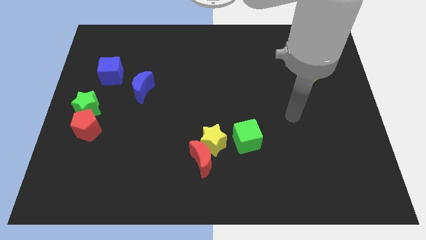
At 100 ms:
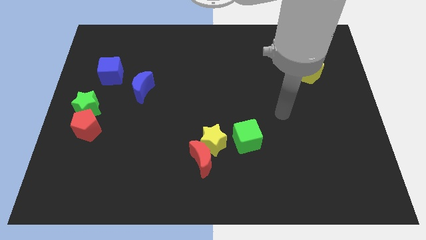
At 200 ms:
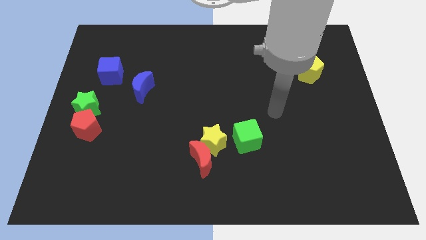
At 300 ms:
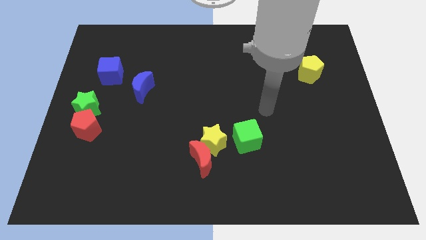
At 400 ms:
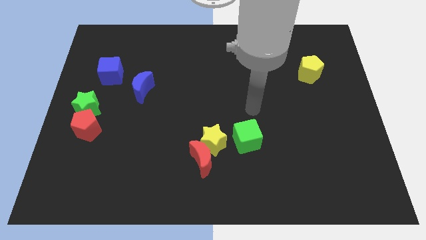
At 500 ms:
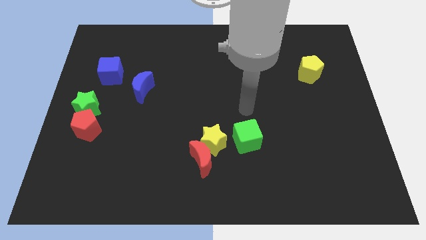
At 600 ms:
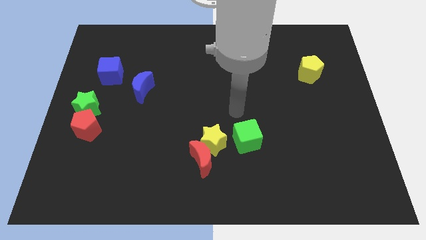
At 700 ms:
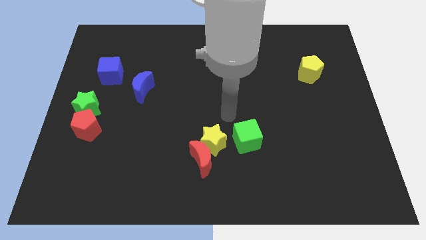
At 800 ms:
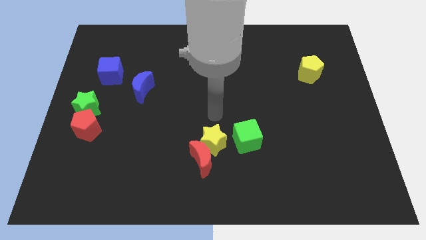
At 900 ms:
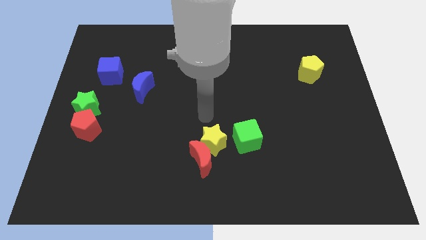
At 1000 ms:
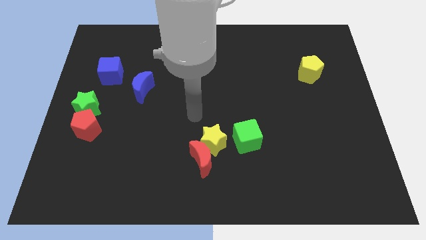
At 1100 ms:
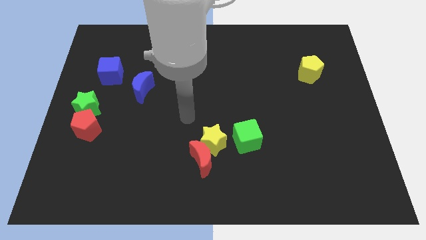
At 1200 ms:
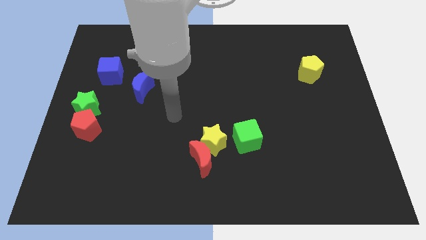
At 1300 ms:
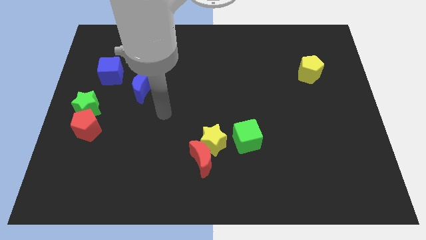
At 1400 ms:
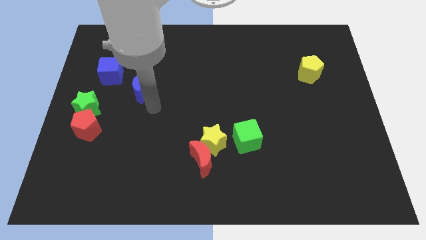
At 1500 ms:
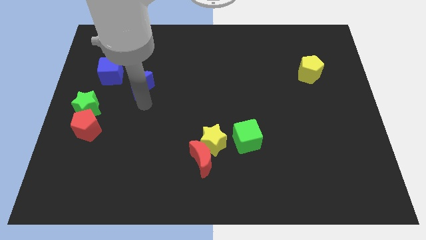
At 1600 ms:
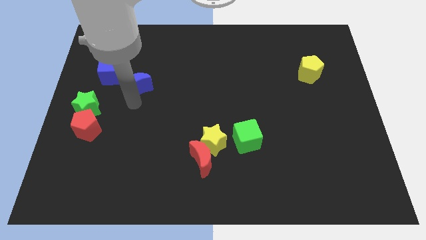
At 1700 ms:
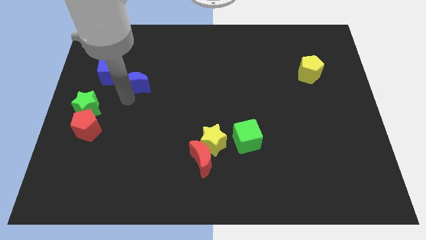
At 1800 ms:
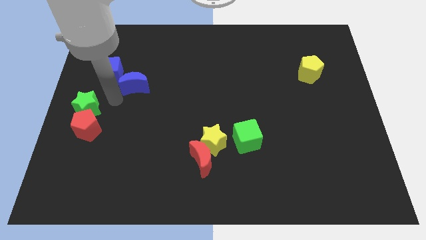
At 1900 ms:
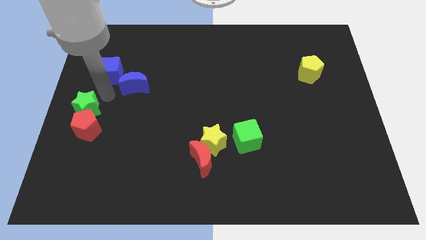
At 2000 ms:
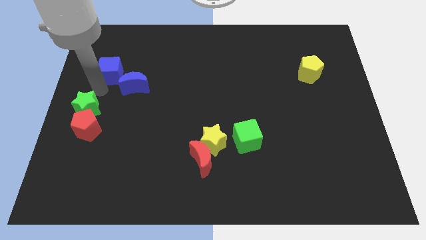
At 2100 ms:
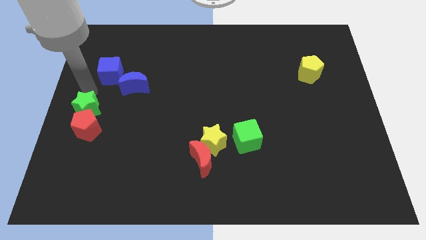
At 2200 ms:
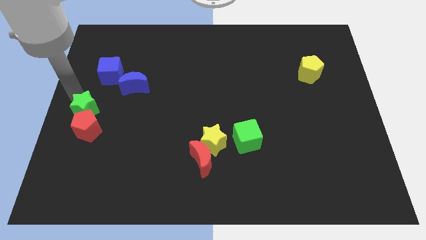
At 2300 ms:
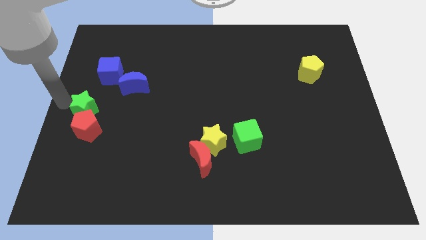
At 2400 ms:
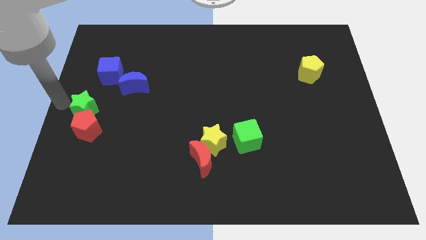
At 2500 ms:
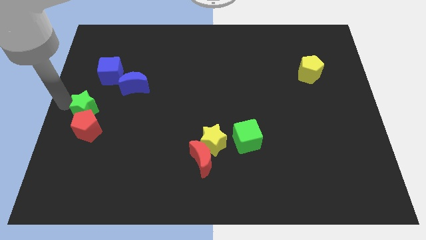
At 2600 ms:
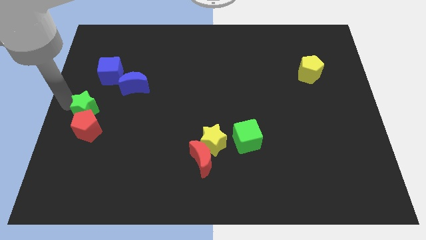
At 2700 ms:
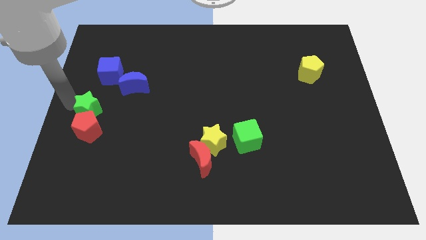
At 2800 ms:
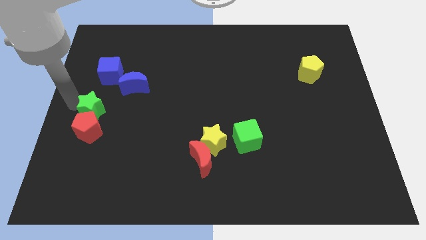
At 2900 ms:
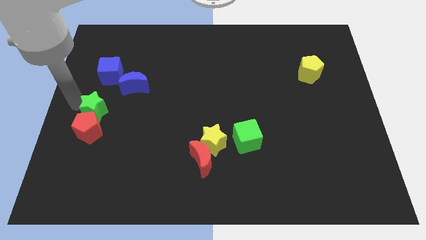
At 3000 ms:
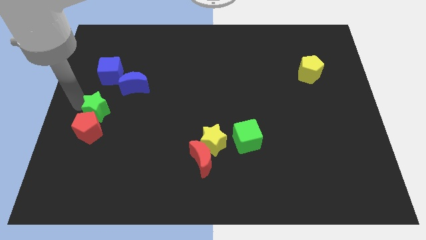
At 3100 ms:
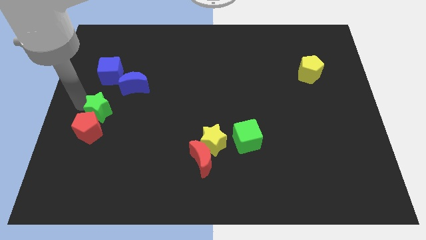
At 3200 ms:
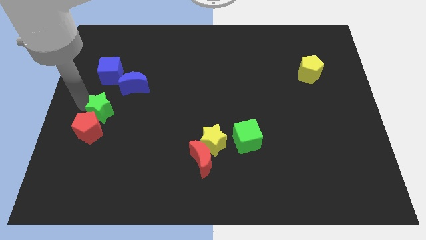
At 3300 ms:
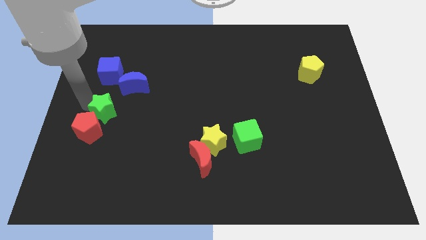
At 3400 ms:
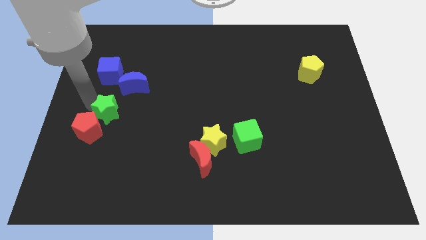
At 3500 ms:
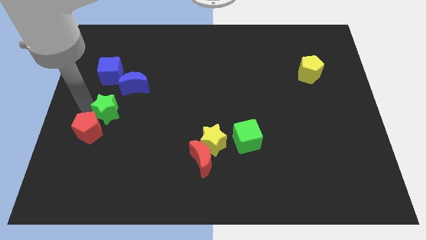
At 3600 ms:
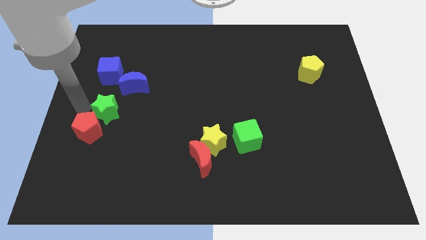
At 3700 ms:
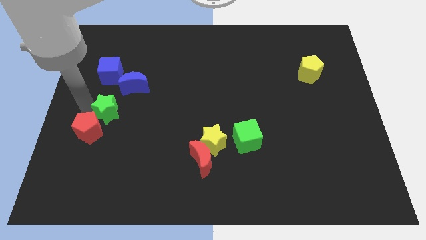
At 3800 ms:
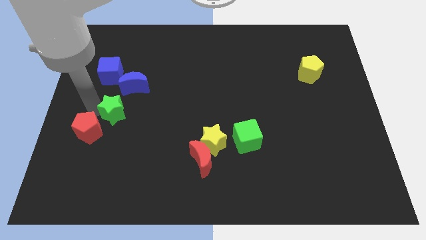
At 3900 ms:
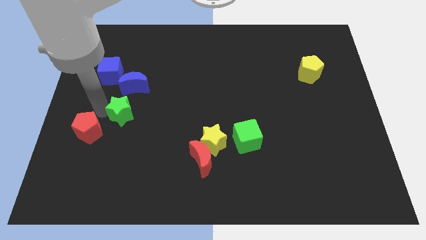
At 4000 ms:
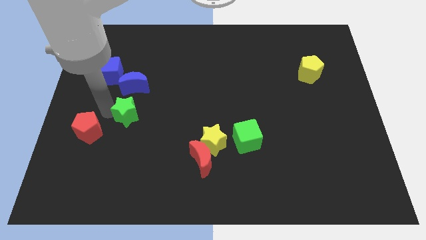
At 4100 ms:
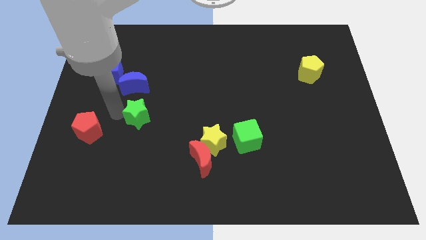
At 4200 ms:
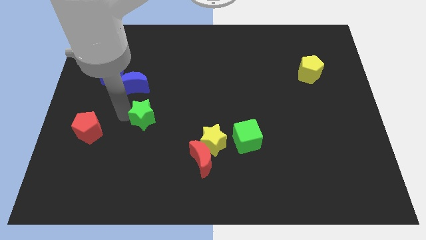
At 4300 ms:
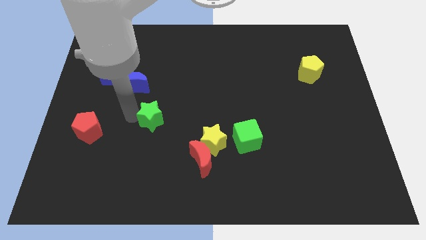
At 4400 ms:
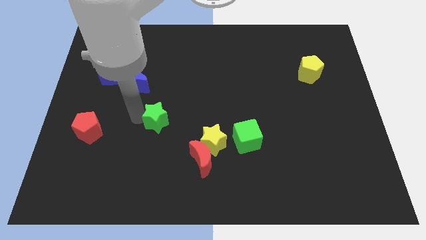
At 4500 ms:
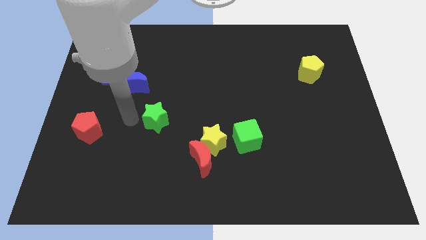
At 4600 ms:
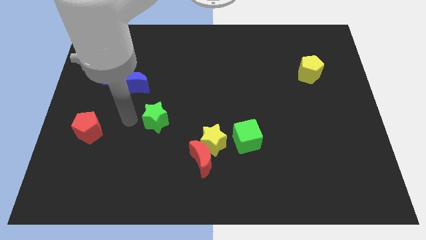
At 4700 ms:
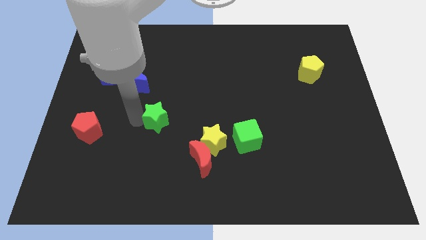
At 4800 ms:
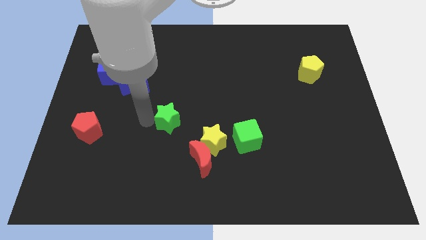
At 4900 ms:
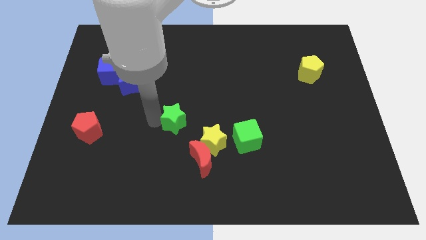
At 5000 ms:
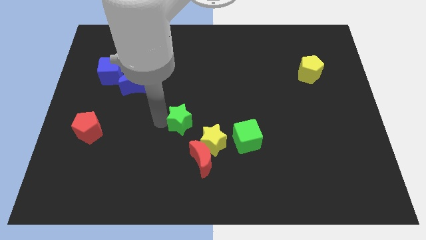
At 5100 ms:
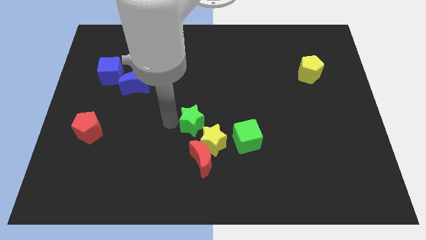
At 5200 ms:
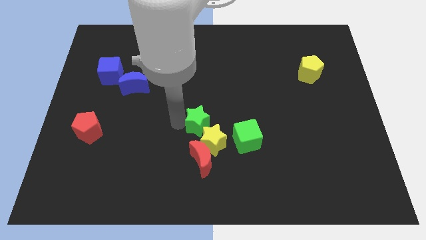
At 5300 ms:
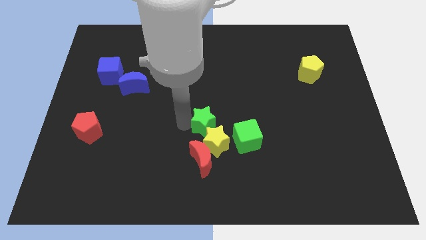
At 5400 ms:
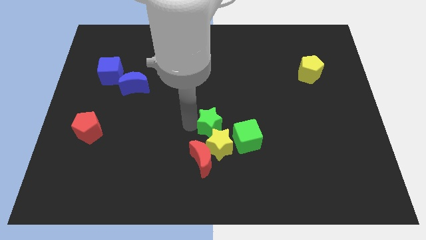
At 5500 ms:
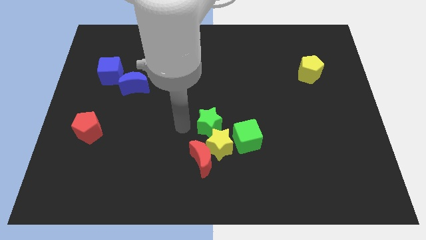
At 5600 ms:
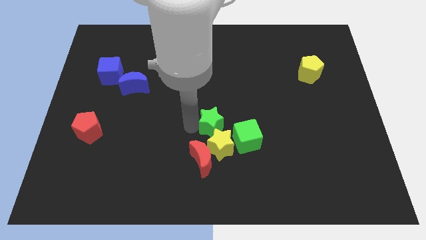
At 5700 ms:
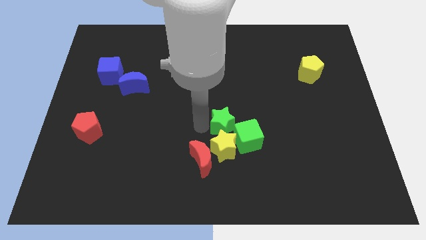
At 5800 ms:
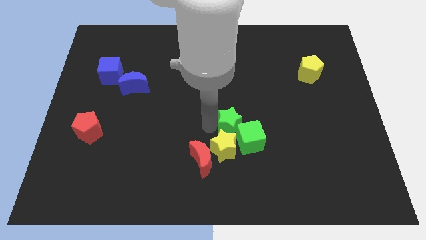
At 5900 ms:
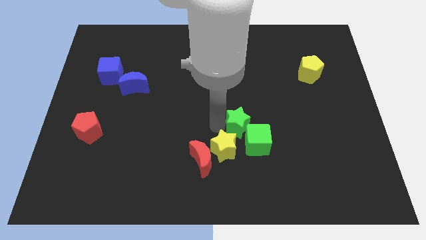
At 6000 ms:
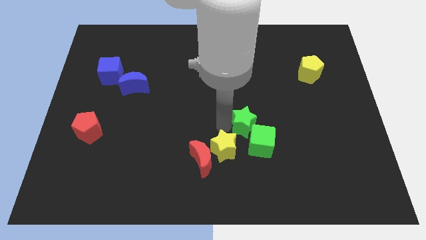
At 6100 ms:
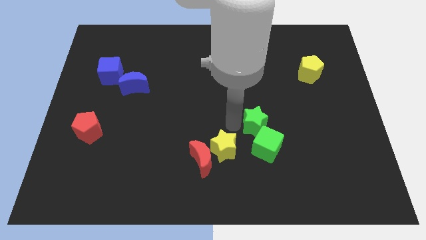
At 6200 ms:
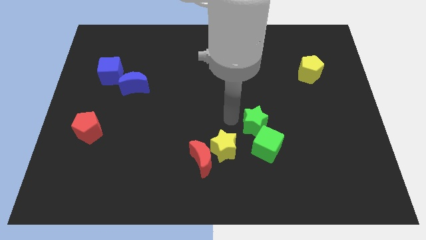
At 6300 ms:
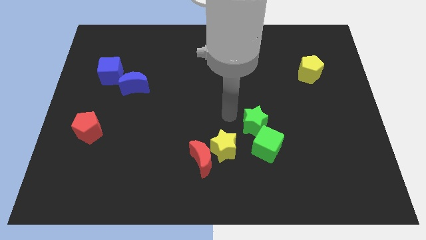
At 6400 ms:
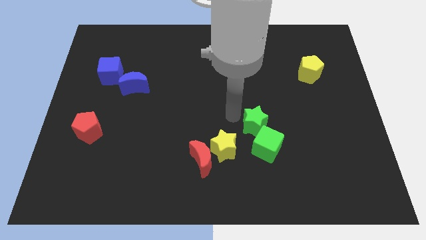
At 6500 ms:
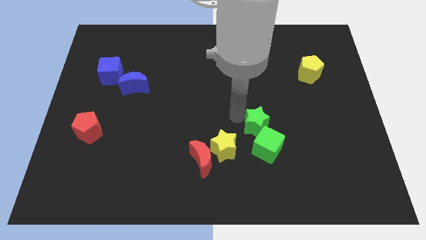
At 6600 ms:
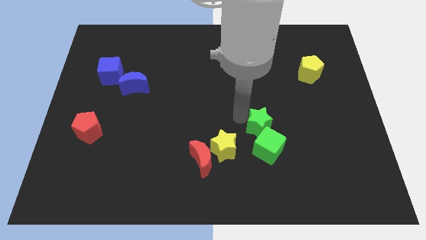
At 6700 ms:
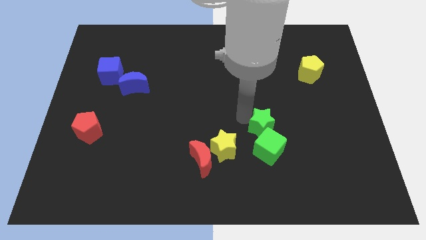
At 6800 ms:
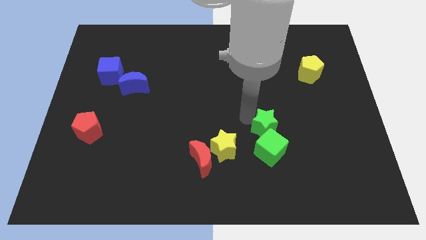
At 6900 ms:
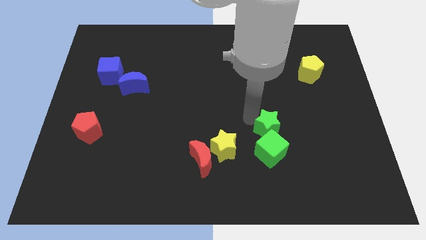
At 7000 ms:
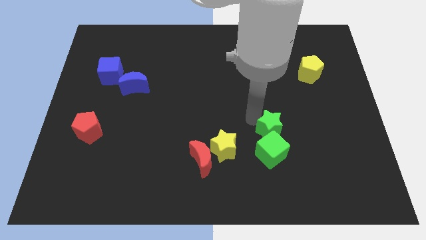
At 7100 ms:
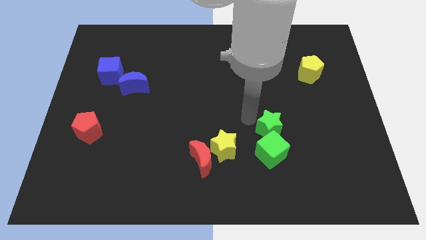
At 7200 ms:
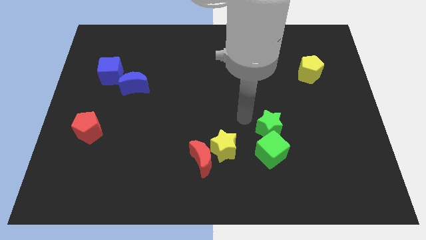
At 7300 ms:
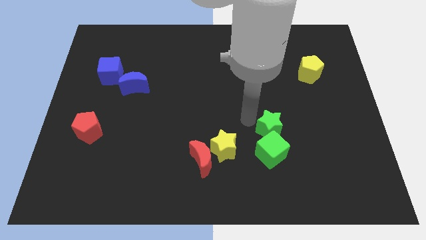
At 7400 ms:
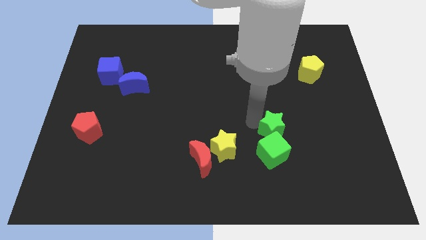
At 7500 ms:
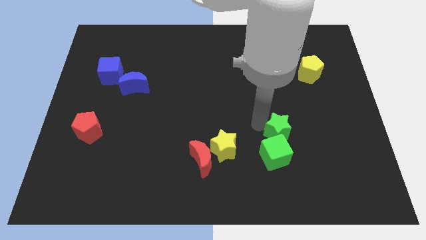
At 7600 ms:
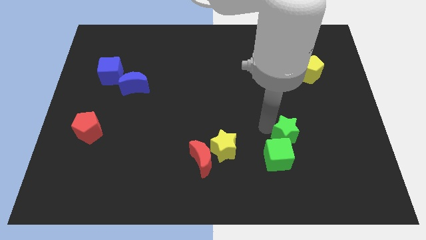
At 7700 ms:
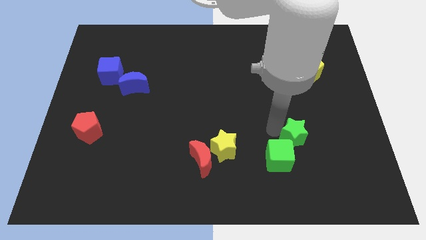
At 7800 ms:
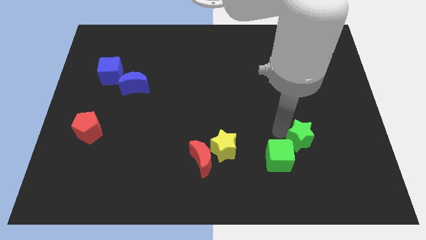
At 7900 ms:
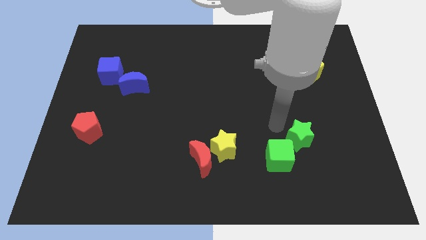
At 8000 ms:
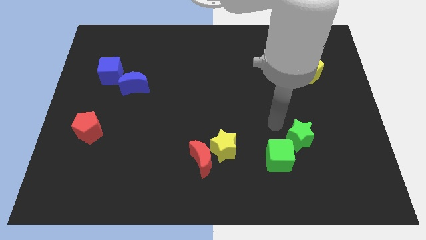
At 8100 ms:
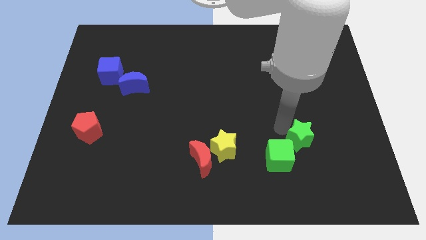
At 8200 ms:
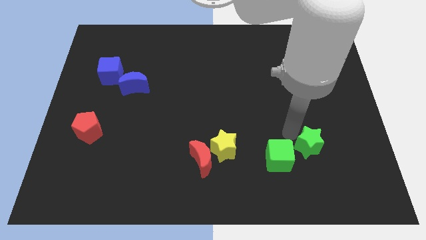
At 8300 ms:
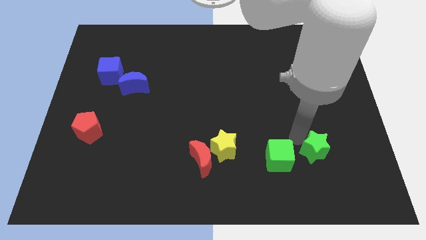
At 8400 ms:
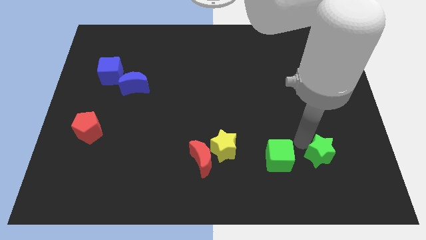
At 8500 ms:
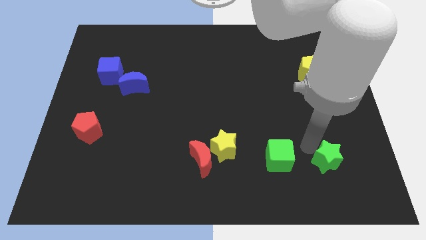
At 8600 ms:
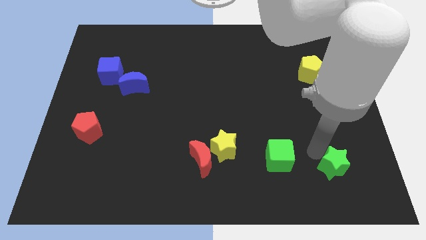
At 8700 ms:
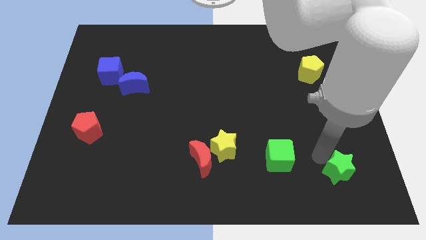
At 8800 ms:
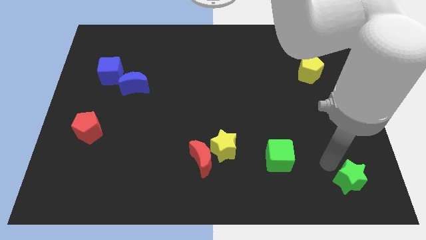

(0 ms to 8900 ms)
move the green star to the lower right corner
